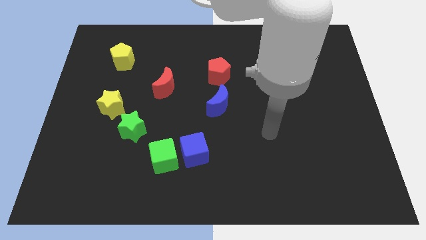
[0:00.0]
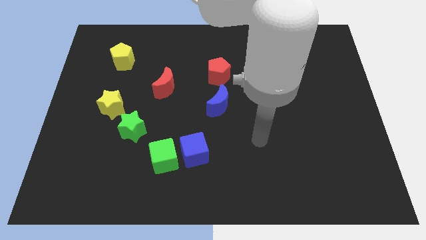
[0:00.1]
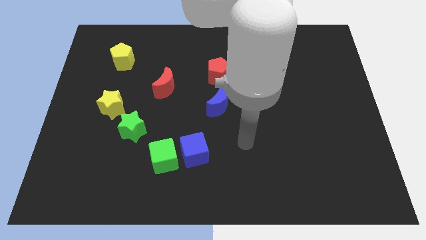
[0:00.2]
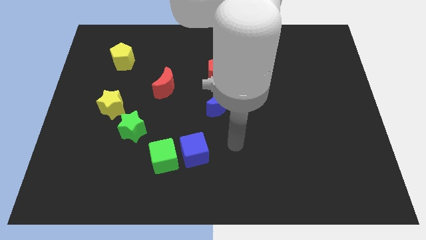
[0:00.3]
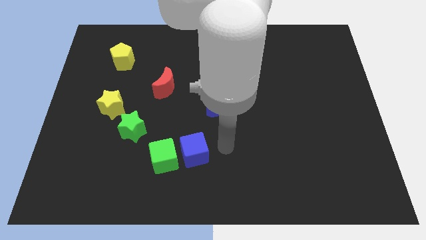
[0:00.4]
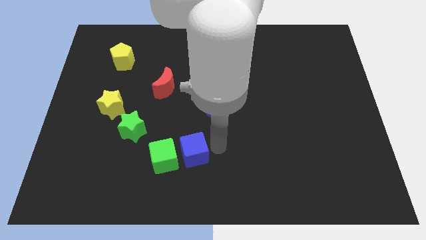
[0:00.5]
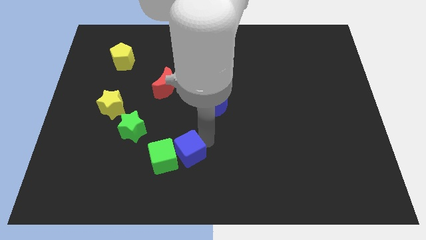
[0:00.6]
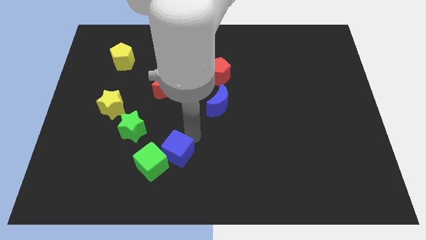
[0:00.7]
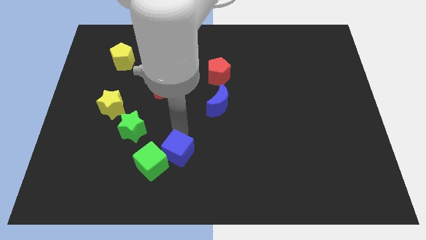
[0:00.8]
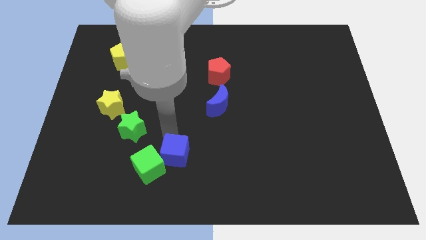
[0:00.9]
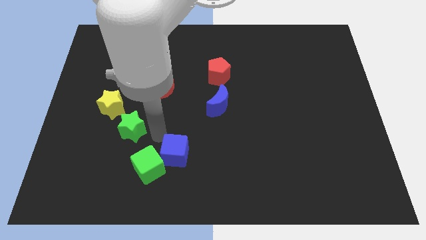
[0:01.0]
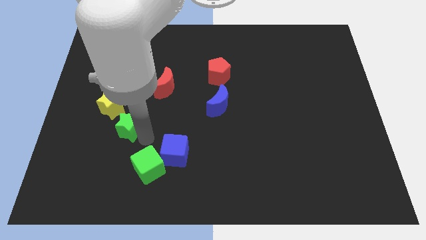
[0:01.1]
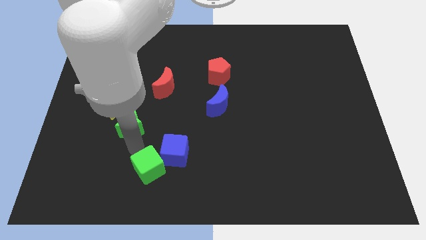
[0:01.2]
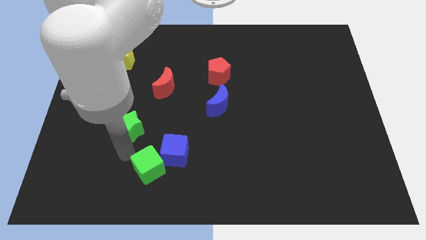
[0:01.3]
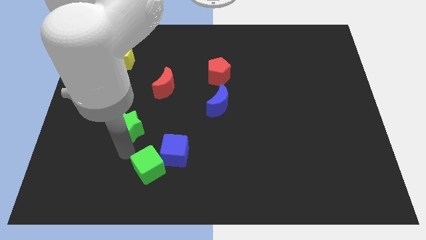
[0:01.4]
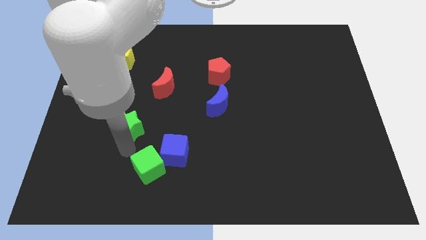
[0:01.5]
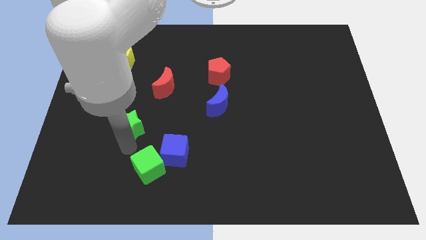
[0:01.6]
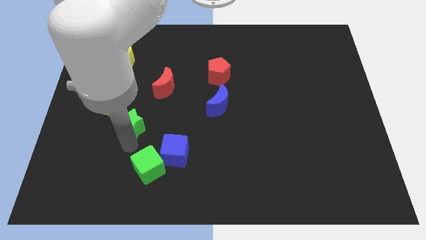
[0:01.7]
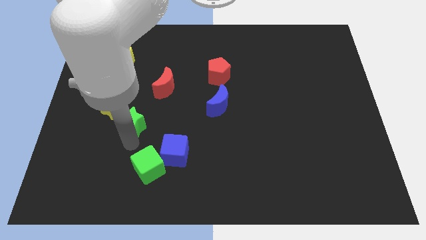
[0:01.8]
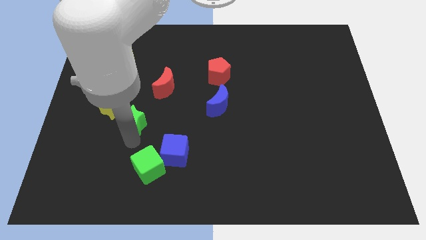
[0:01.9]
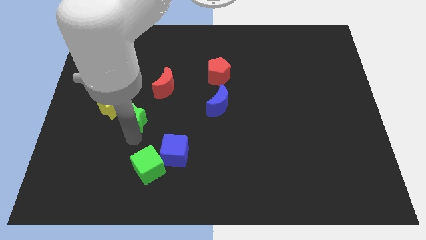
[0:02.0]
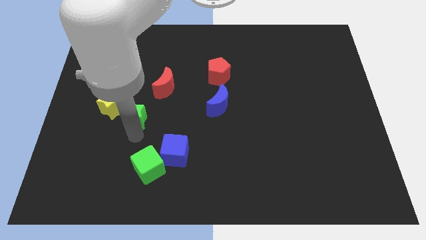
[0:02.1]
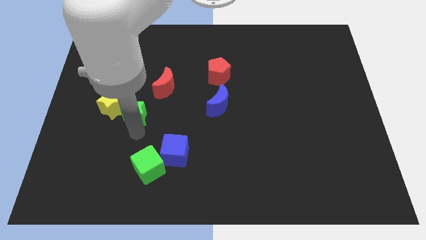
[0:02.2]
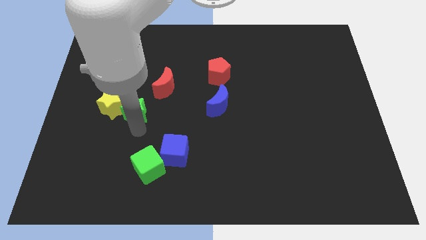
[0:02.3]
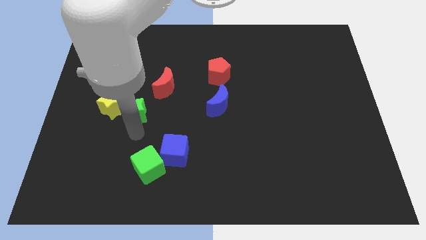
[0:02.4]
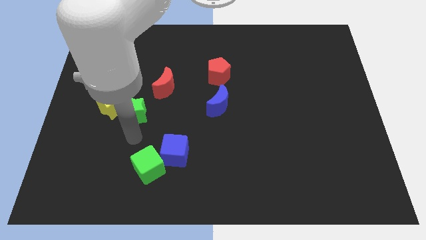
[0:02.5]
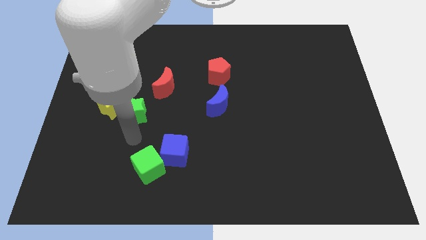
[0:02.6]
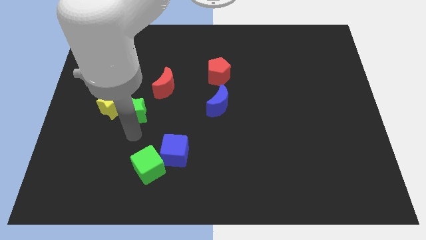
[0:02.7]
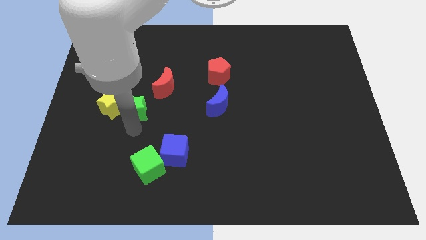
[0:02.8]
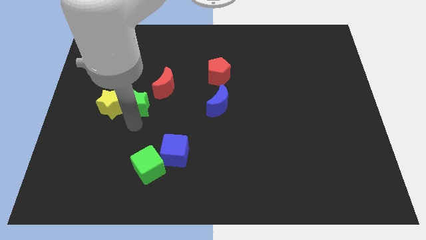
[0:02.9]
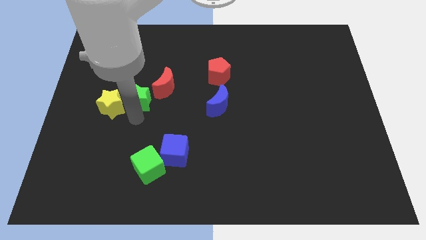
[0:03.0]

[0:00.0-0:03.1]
move the green star a little bit up

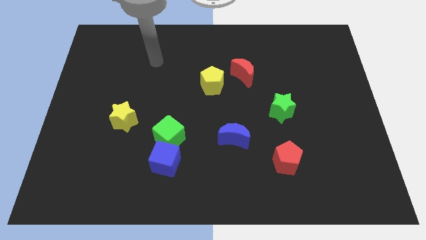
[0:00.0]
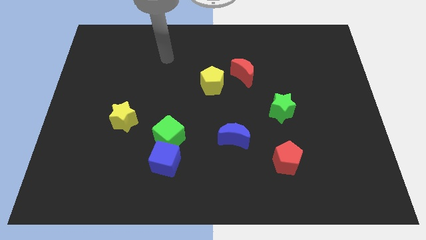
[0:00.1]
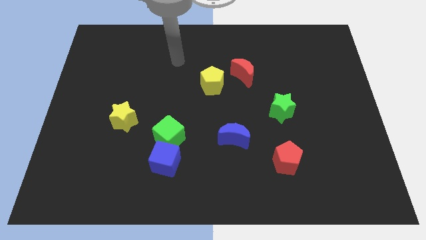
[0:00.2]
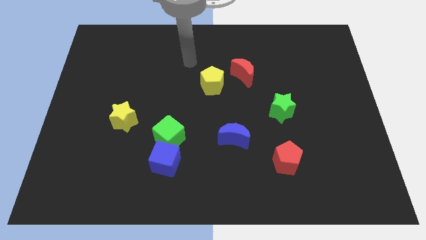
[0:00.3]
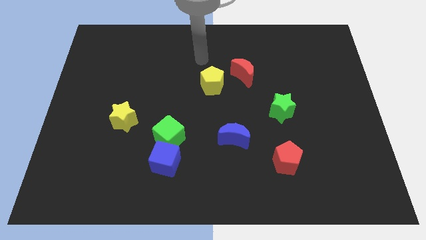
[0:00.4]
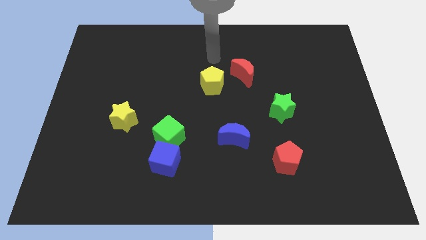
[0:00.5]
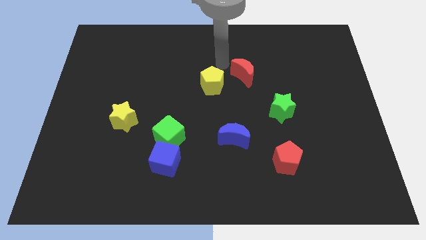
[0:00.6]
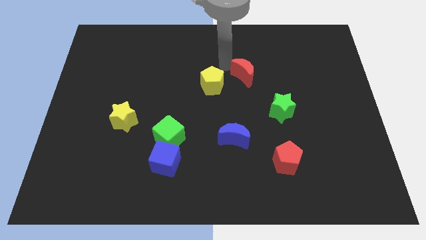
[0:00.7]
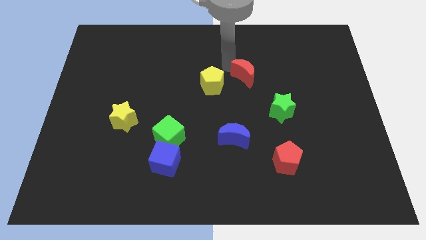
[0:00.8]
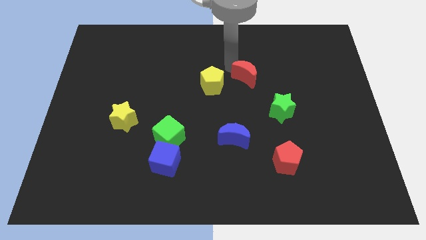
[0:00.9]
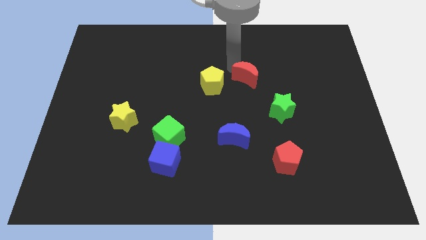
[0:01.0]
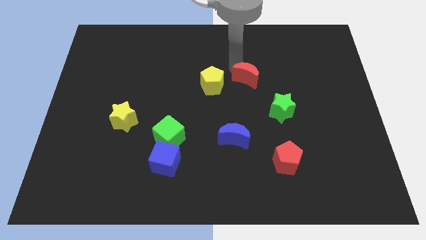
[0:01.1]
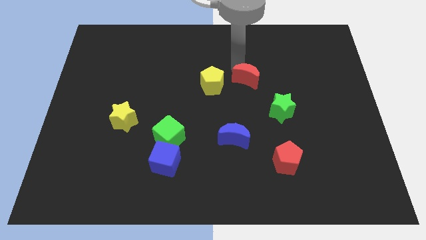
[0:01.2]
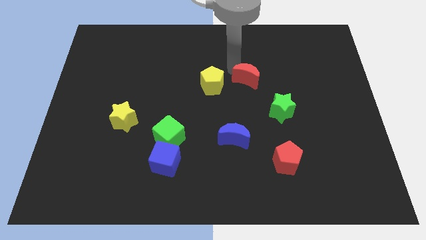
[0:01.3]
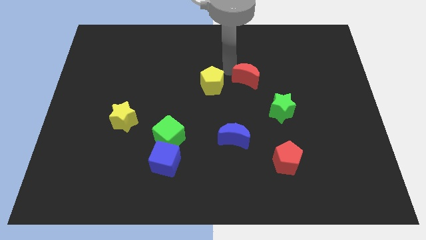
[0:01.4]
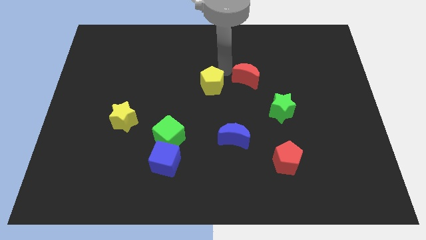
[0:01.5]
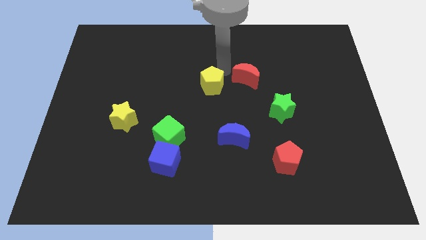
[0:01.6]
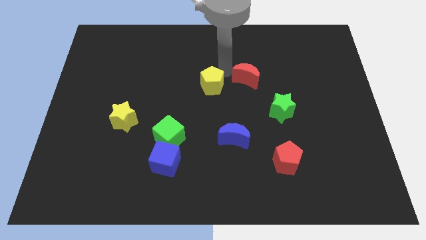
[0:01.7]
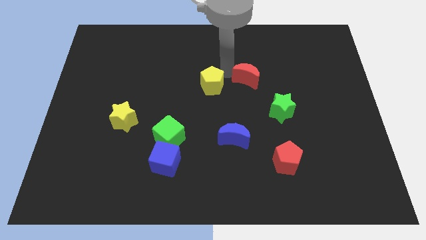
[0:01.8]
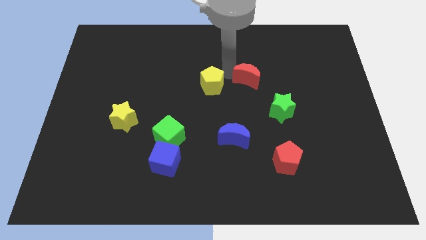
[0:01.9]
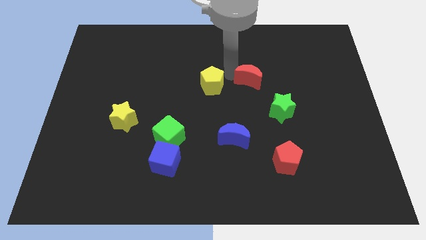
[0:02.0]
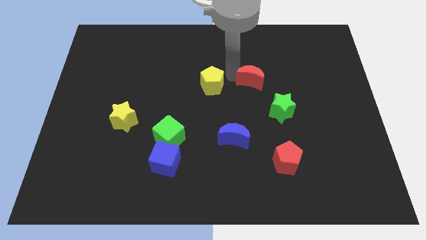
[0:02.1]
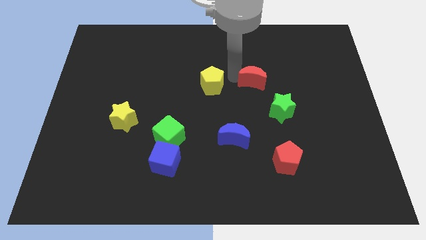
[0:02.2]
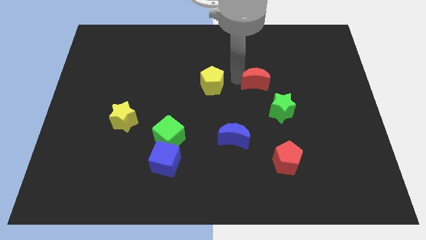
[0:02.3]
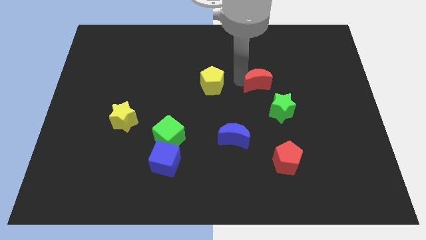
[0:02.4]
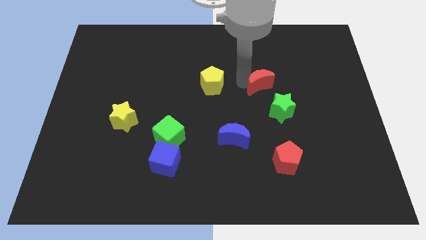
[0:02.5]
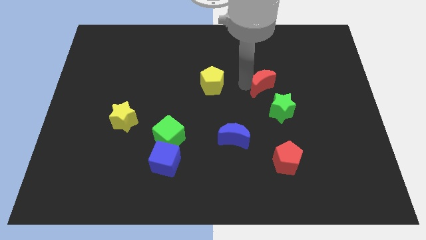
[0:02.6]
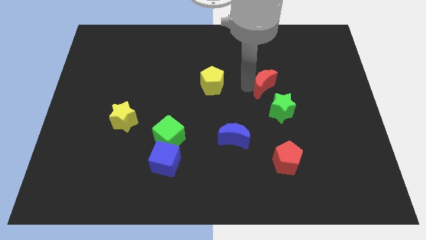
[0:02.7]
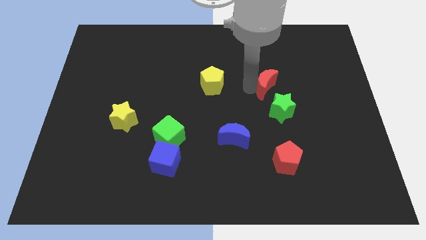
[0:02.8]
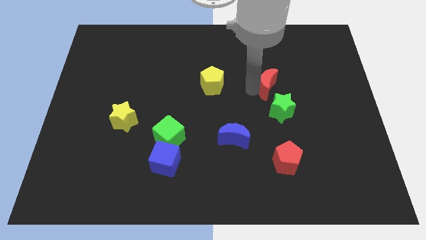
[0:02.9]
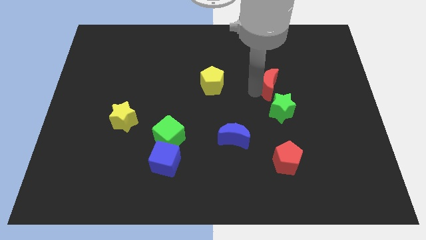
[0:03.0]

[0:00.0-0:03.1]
move the red moon down and then to the right slightly

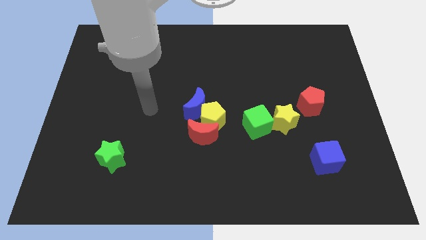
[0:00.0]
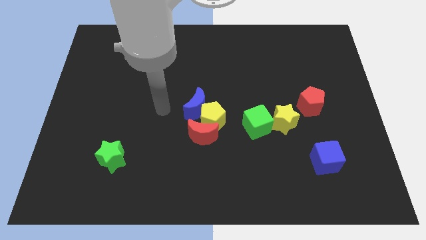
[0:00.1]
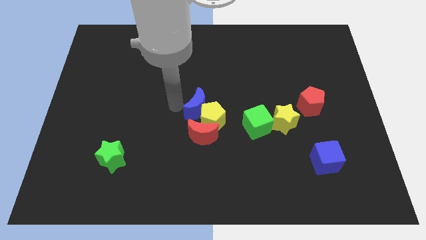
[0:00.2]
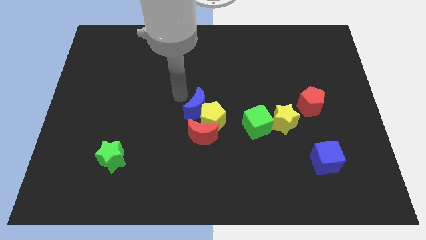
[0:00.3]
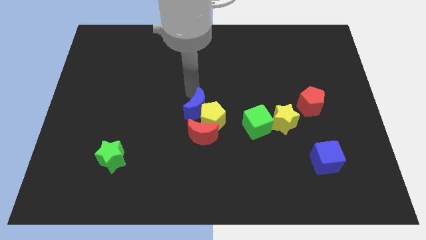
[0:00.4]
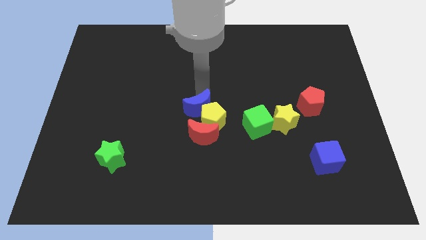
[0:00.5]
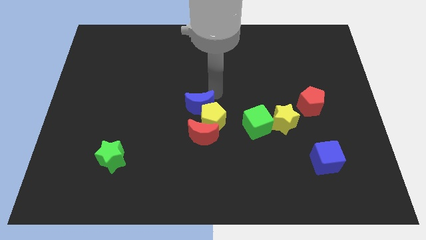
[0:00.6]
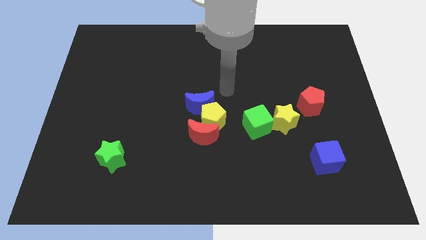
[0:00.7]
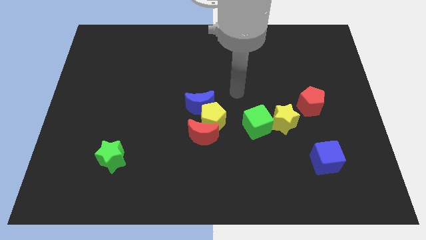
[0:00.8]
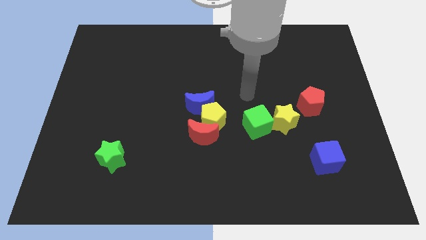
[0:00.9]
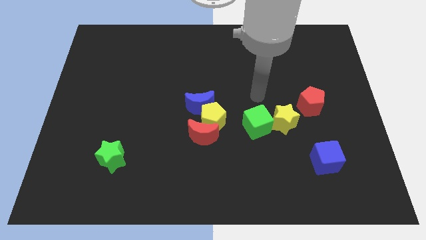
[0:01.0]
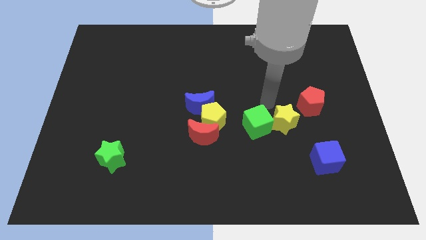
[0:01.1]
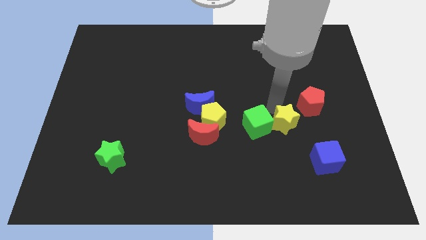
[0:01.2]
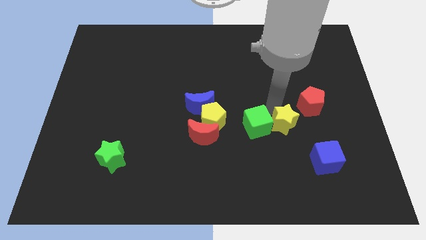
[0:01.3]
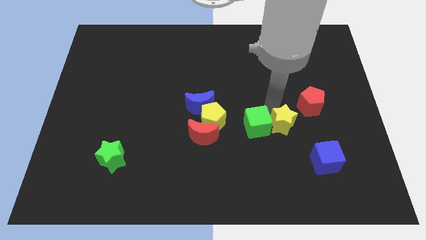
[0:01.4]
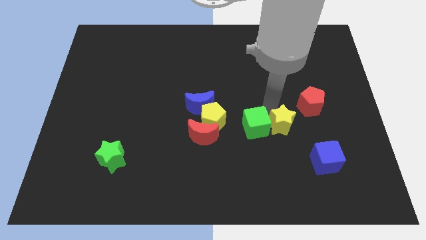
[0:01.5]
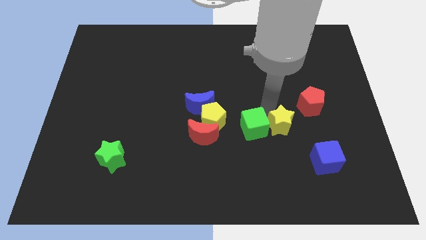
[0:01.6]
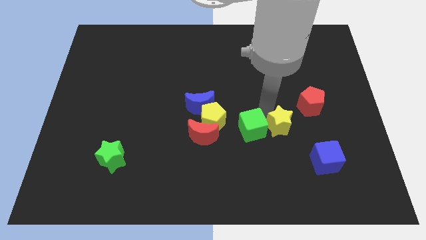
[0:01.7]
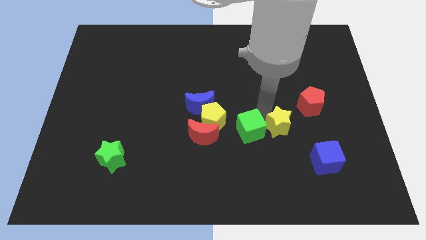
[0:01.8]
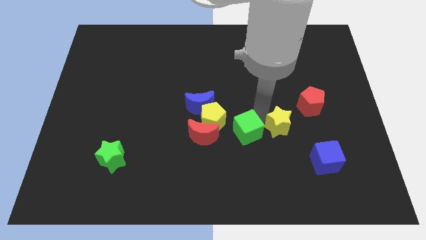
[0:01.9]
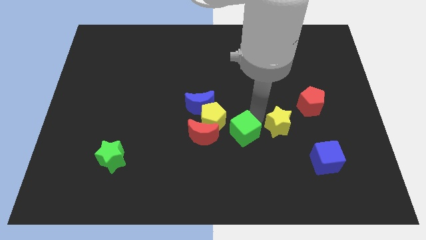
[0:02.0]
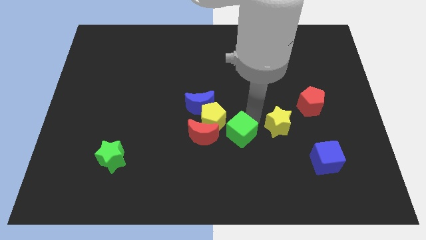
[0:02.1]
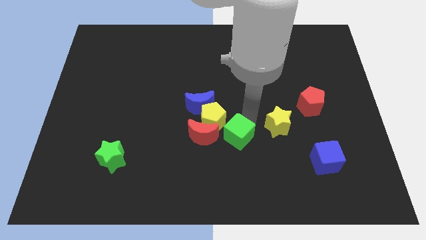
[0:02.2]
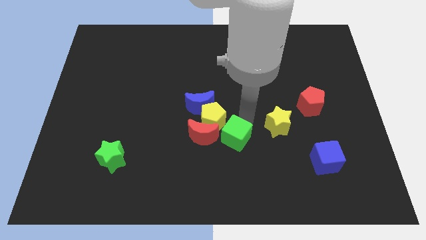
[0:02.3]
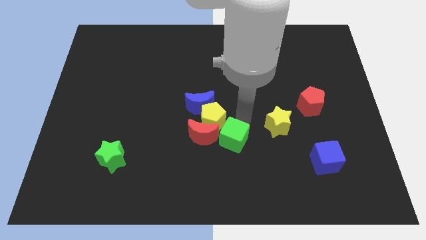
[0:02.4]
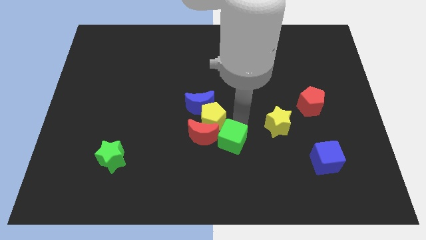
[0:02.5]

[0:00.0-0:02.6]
push the green cube a little bit down and then to the left
